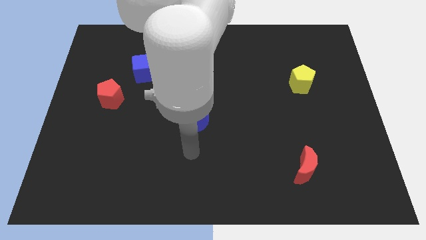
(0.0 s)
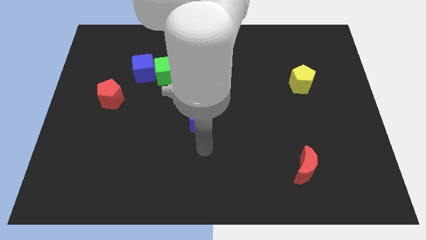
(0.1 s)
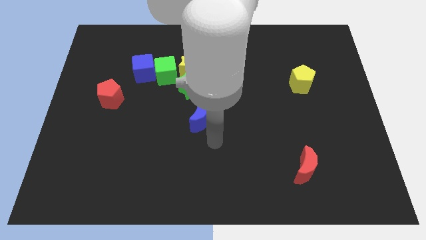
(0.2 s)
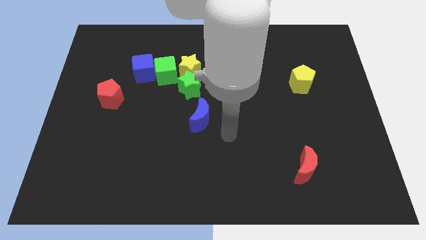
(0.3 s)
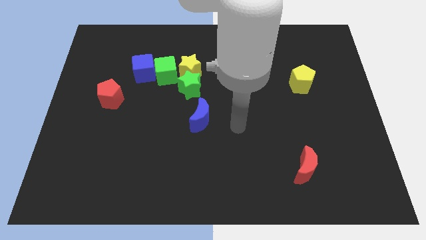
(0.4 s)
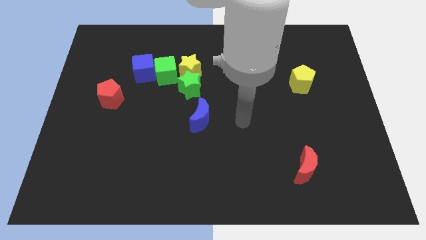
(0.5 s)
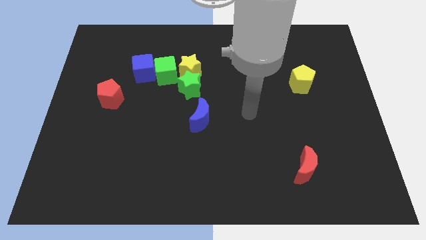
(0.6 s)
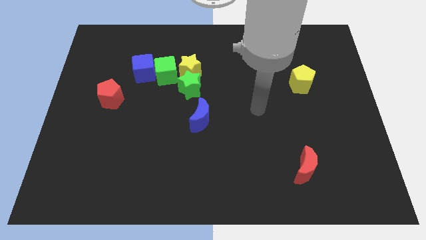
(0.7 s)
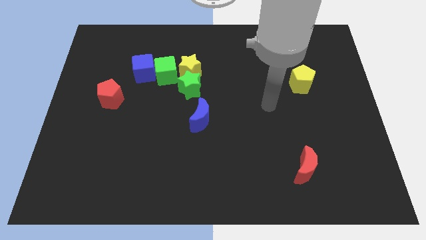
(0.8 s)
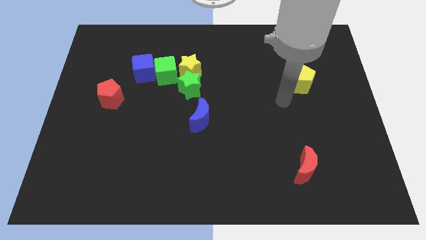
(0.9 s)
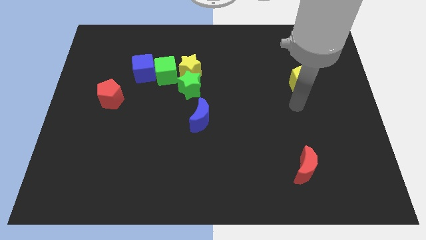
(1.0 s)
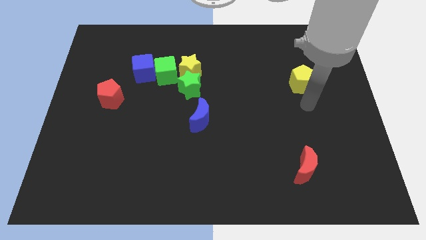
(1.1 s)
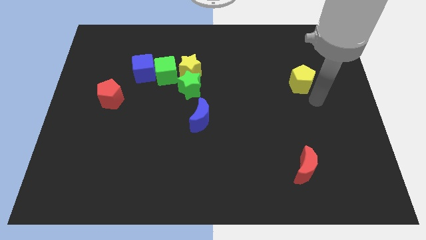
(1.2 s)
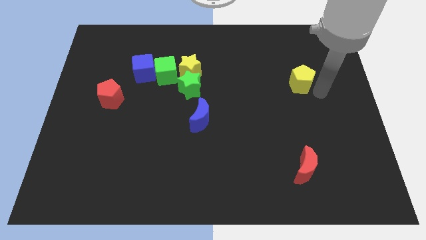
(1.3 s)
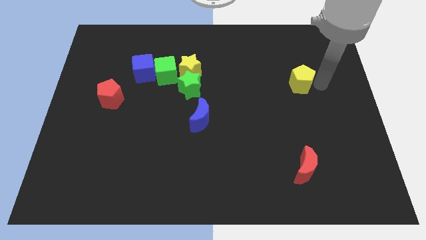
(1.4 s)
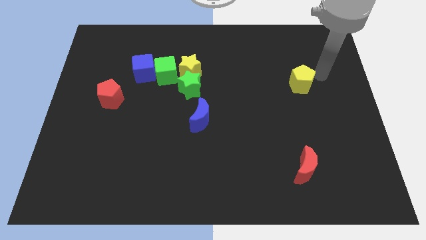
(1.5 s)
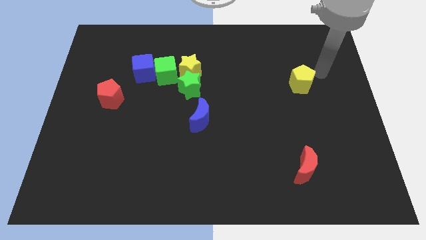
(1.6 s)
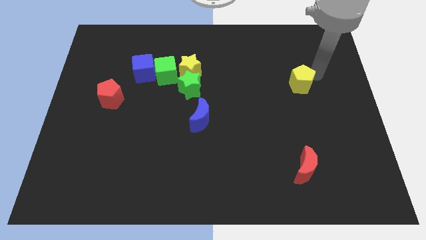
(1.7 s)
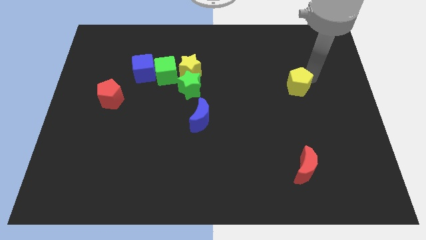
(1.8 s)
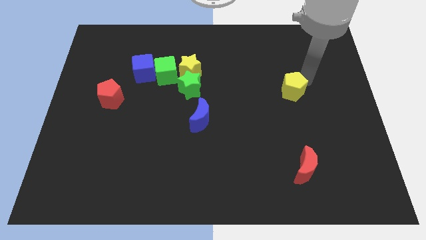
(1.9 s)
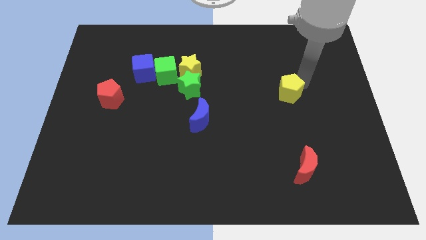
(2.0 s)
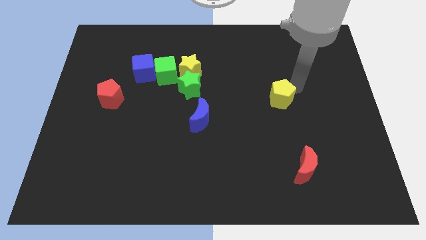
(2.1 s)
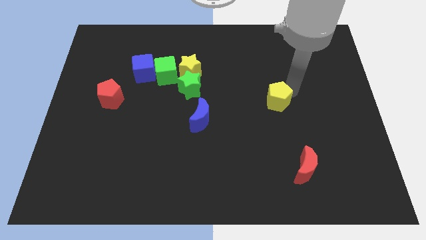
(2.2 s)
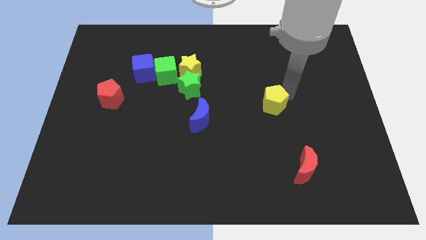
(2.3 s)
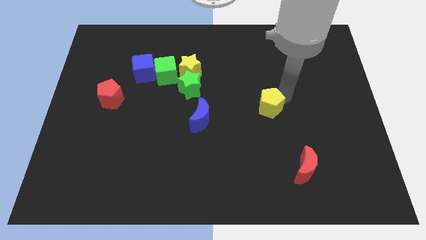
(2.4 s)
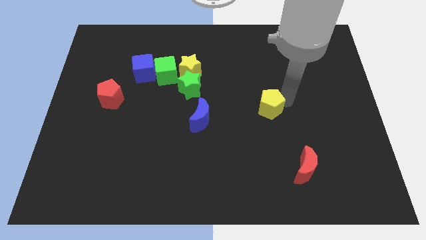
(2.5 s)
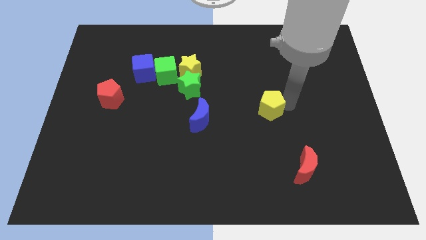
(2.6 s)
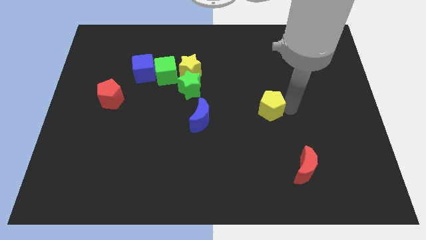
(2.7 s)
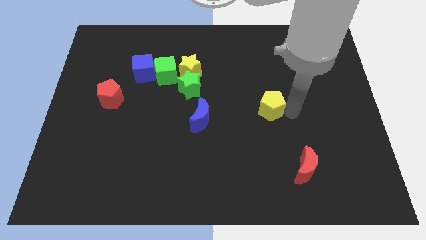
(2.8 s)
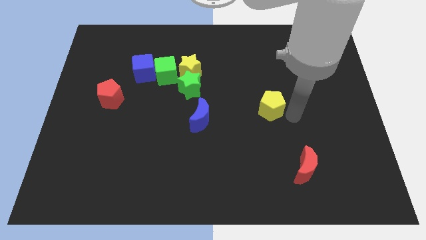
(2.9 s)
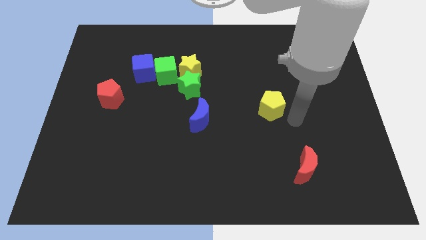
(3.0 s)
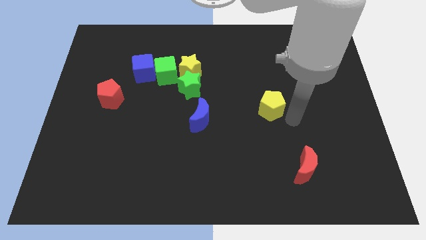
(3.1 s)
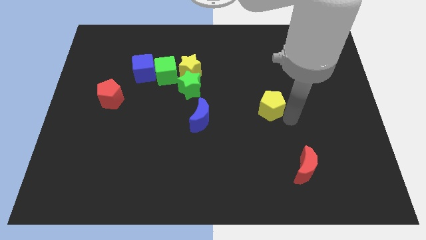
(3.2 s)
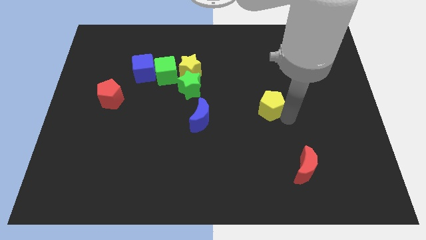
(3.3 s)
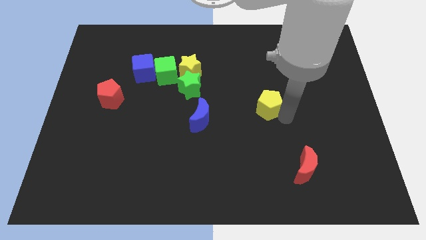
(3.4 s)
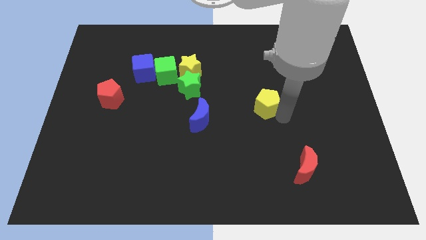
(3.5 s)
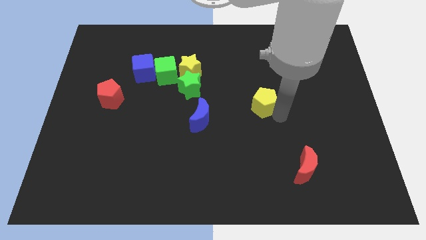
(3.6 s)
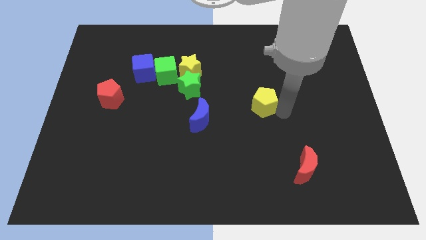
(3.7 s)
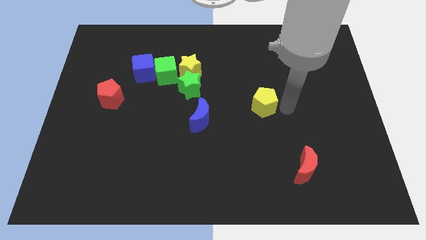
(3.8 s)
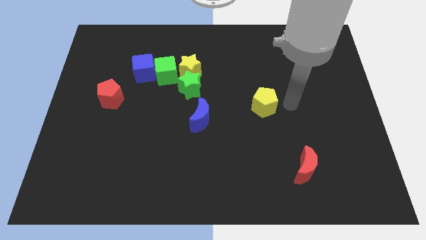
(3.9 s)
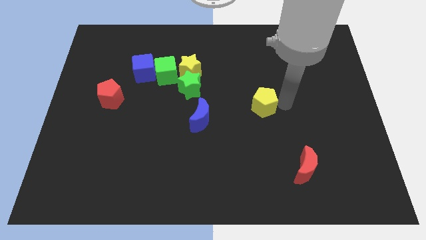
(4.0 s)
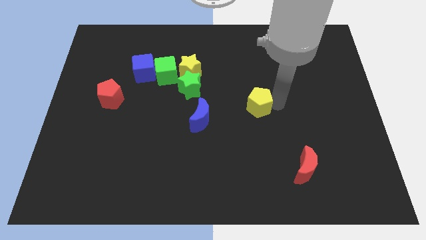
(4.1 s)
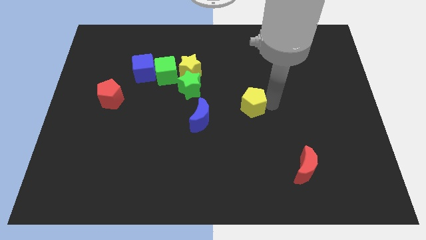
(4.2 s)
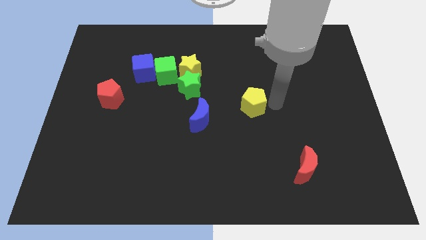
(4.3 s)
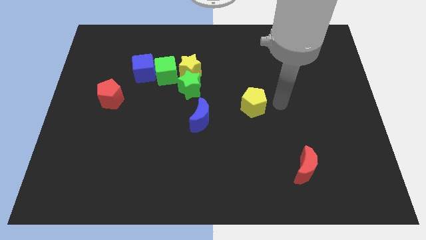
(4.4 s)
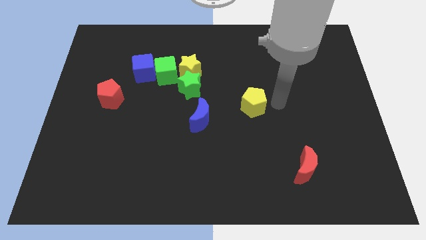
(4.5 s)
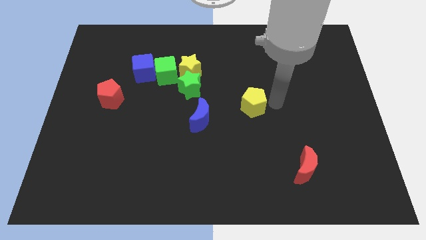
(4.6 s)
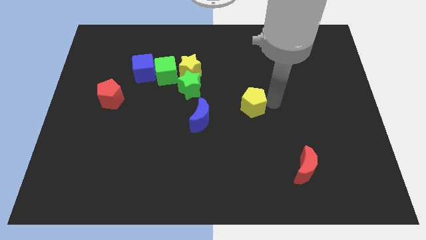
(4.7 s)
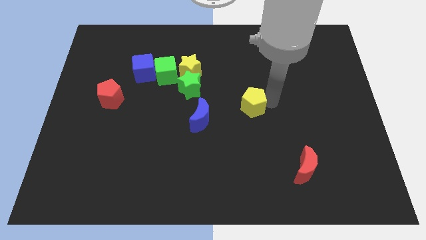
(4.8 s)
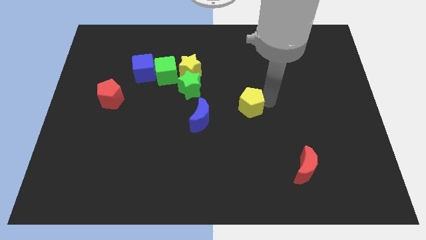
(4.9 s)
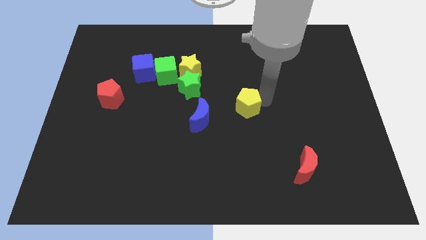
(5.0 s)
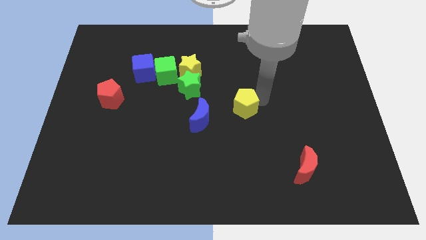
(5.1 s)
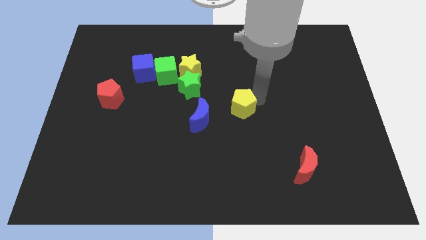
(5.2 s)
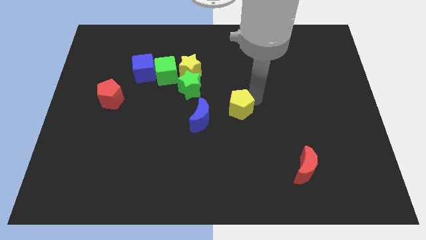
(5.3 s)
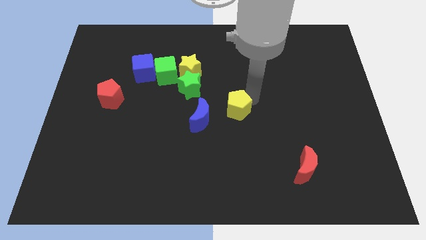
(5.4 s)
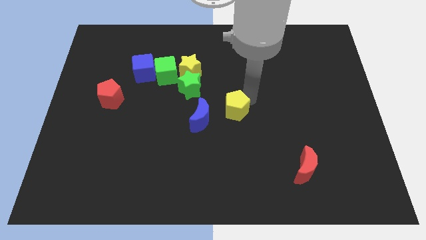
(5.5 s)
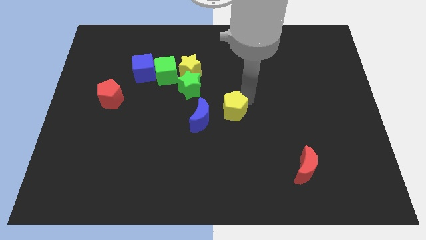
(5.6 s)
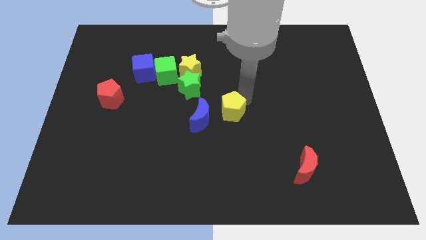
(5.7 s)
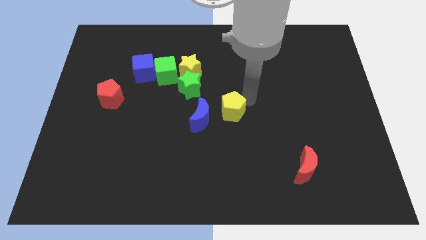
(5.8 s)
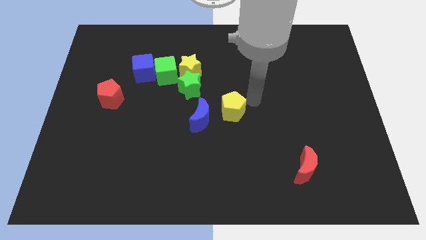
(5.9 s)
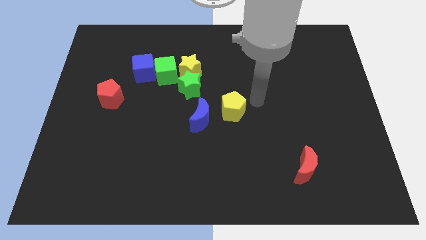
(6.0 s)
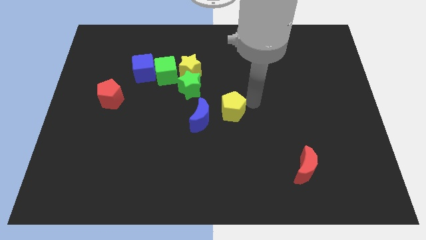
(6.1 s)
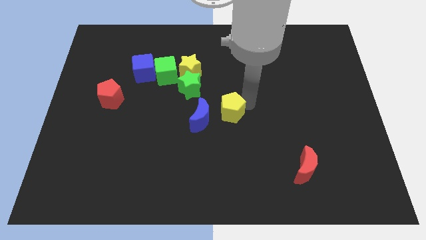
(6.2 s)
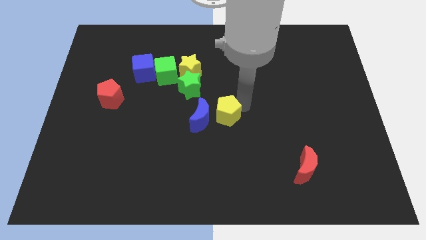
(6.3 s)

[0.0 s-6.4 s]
push the yellow pentagon next to the blue moon

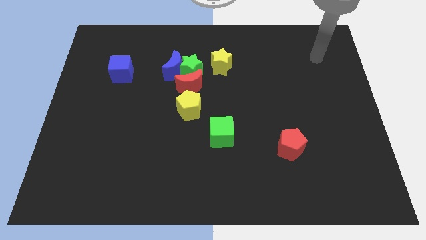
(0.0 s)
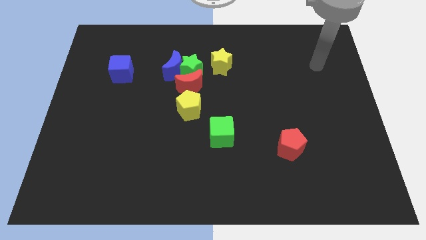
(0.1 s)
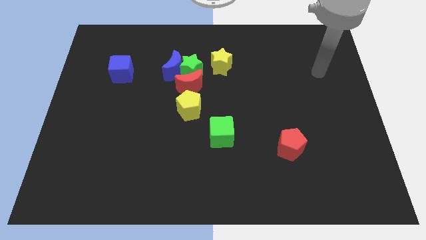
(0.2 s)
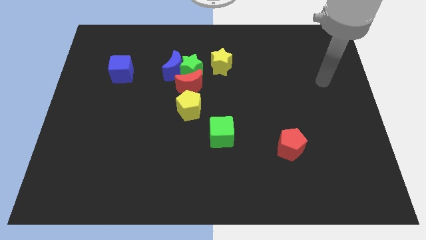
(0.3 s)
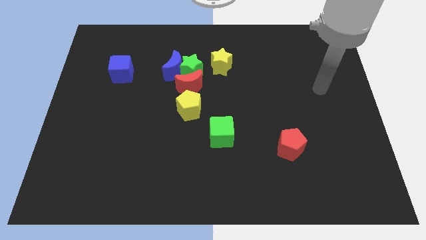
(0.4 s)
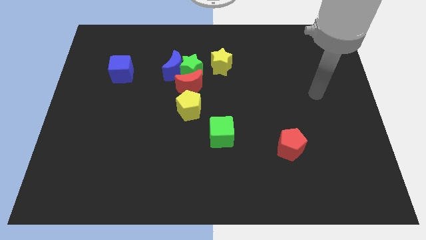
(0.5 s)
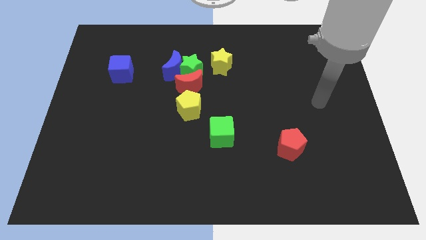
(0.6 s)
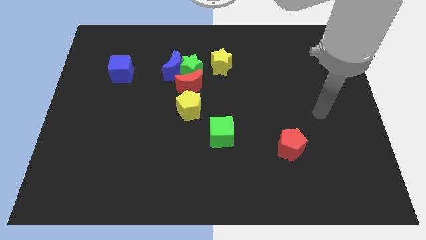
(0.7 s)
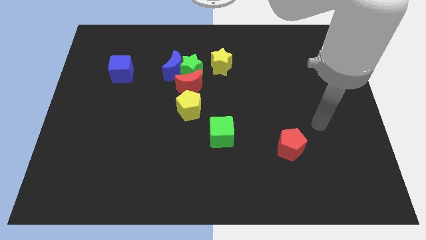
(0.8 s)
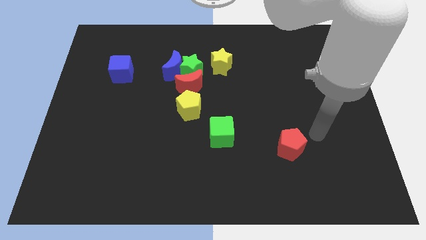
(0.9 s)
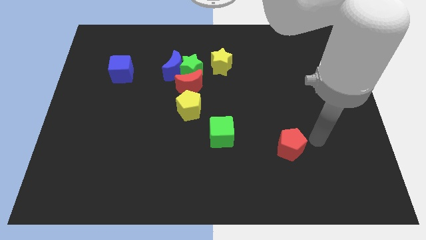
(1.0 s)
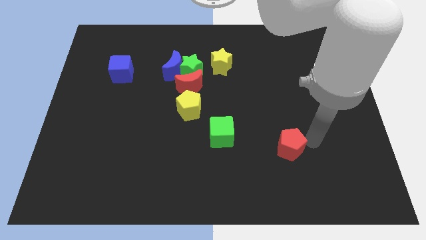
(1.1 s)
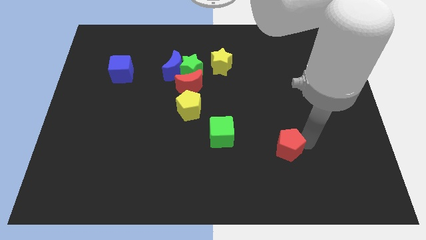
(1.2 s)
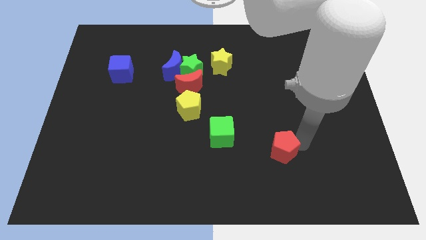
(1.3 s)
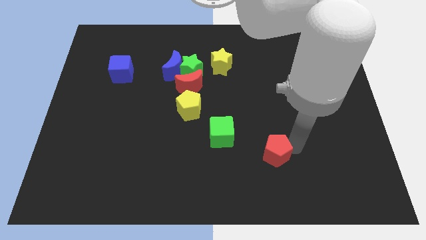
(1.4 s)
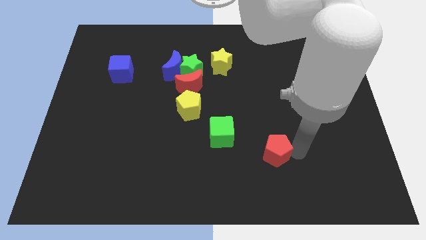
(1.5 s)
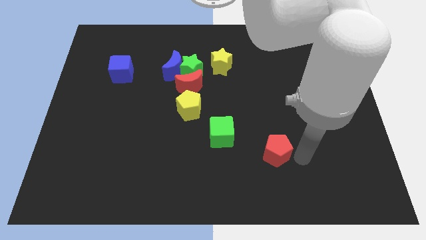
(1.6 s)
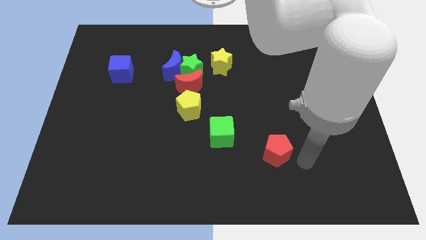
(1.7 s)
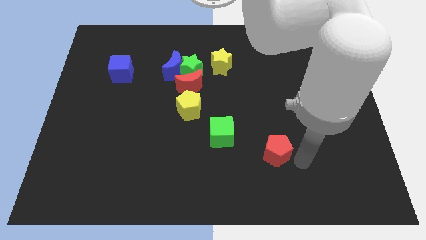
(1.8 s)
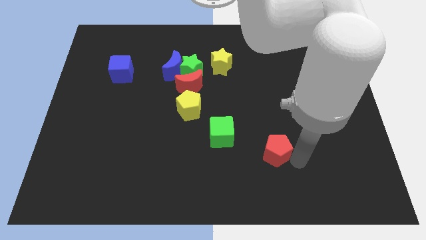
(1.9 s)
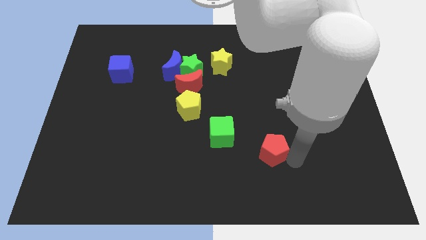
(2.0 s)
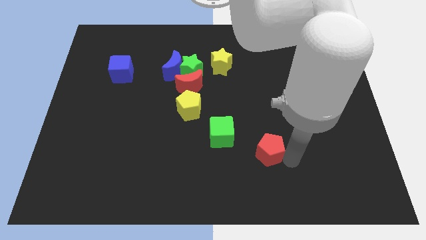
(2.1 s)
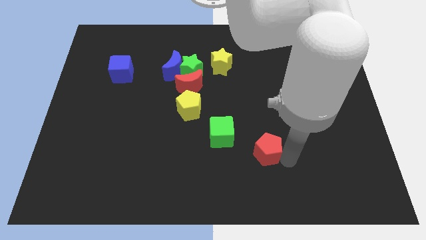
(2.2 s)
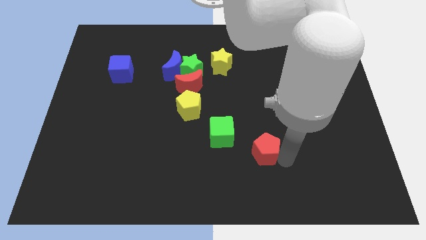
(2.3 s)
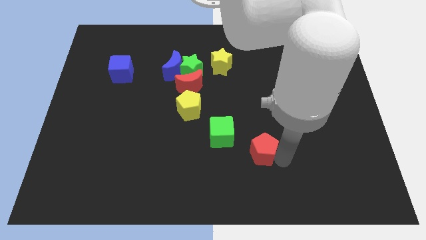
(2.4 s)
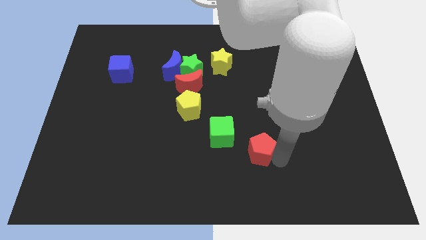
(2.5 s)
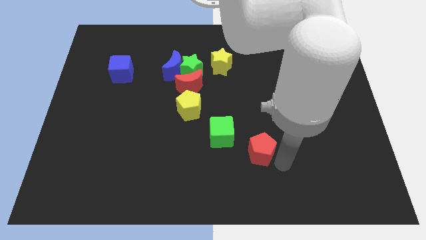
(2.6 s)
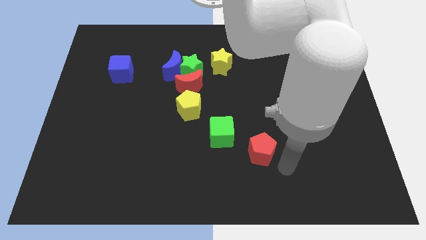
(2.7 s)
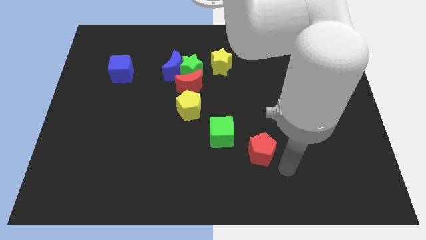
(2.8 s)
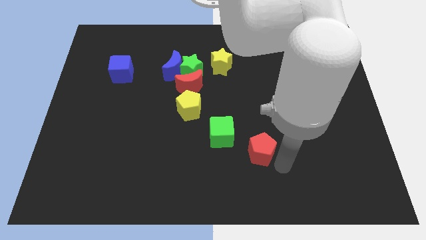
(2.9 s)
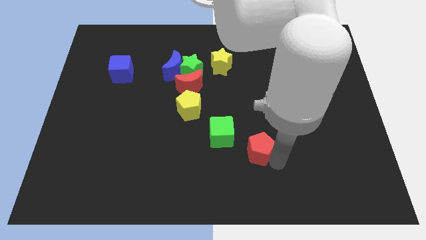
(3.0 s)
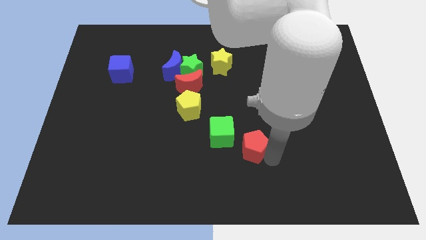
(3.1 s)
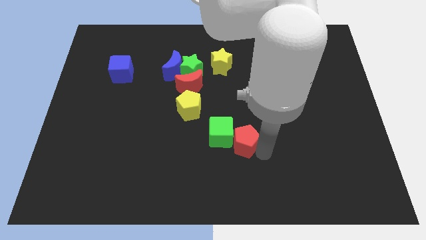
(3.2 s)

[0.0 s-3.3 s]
slide the red pentagon next to the green cube
